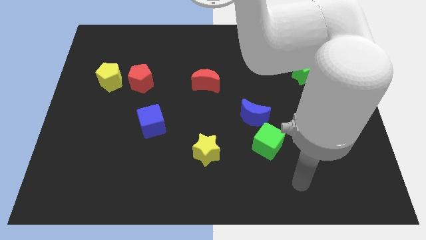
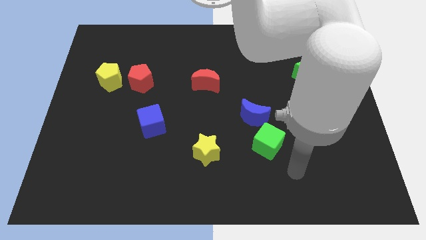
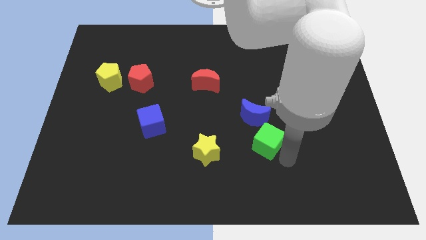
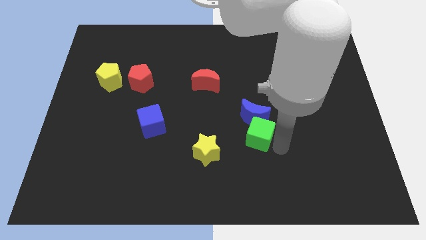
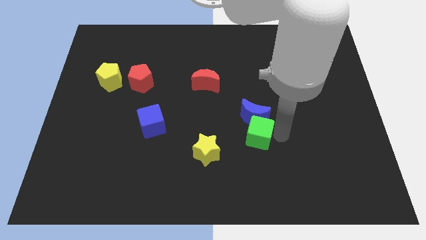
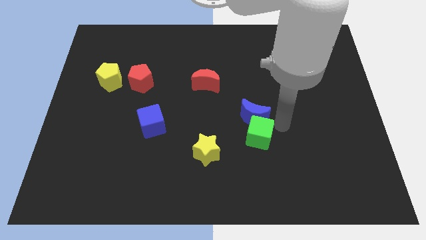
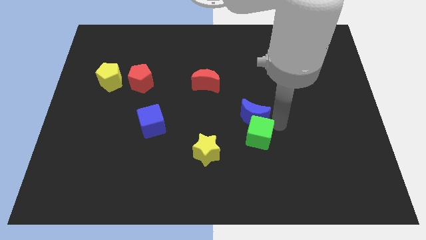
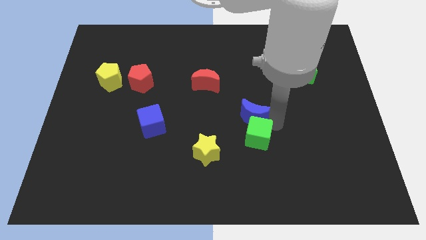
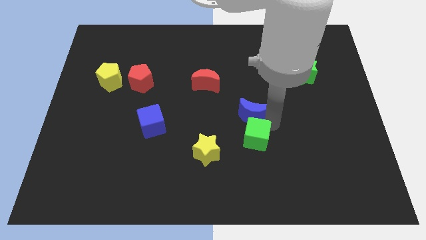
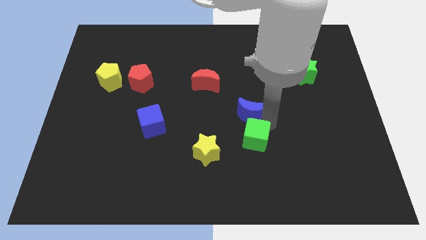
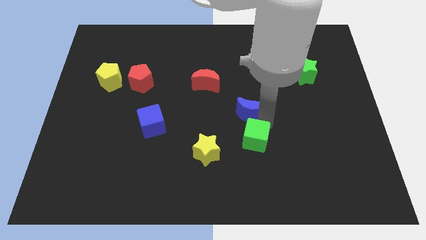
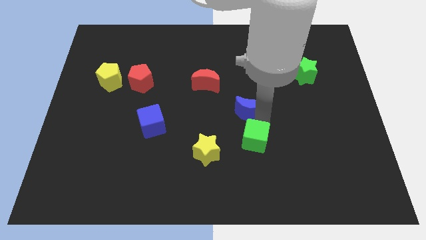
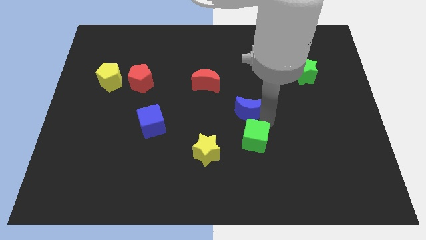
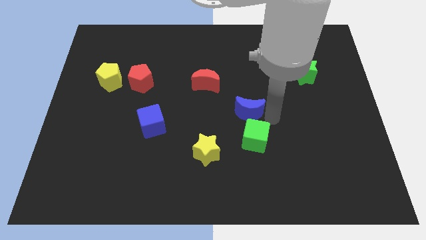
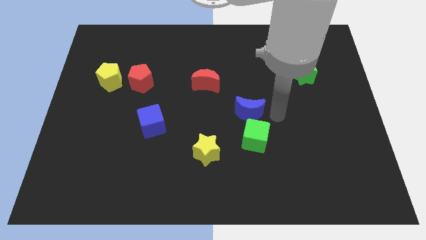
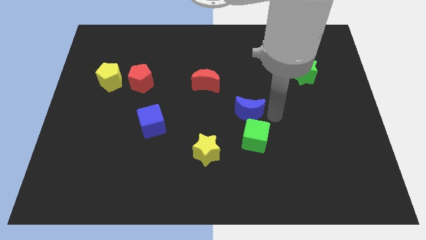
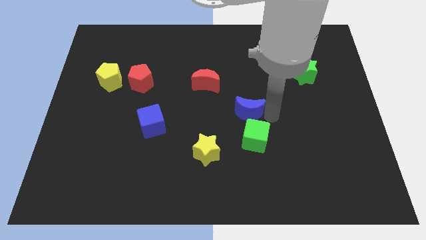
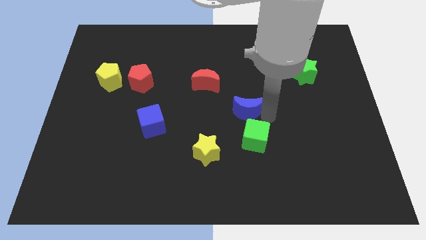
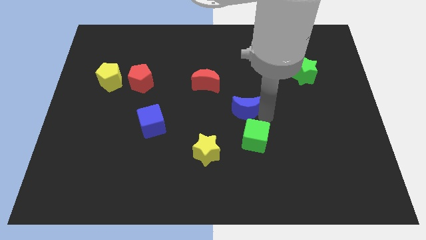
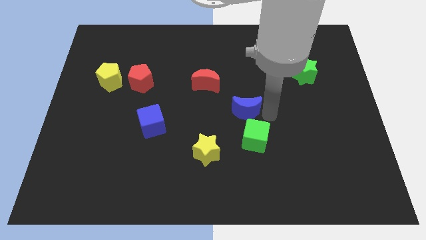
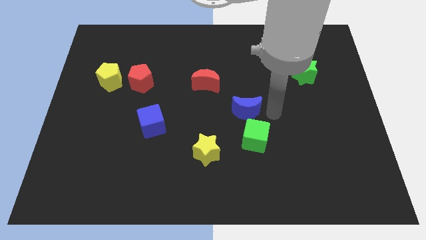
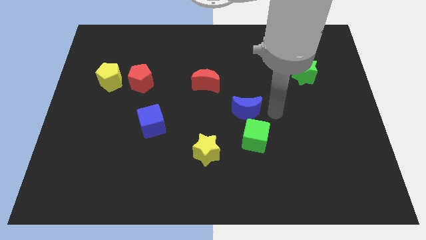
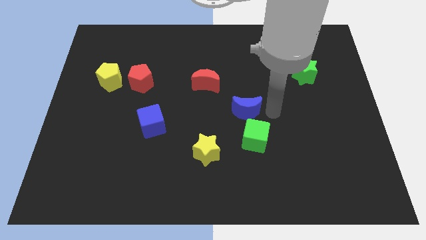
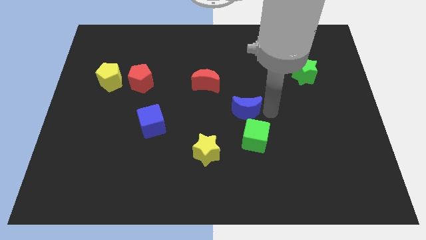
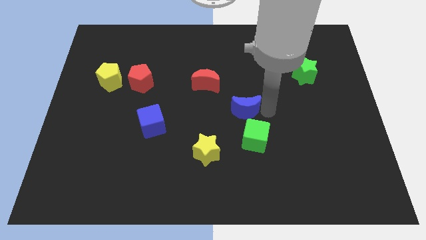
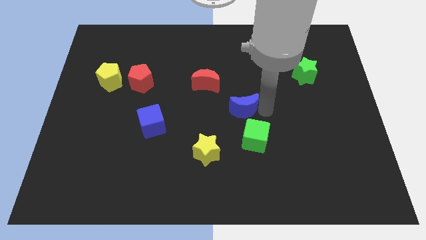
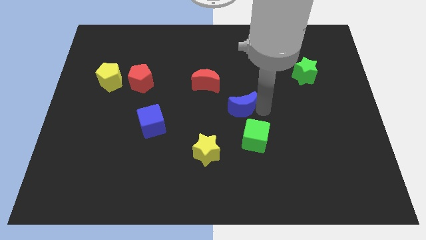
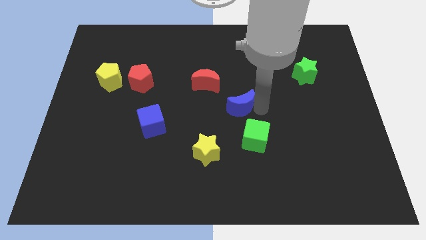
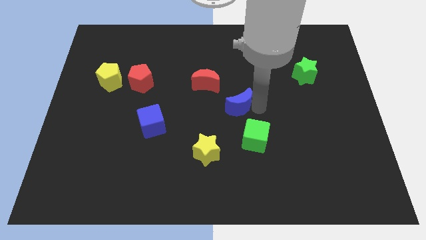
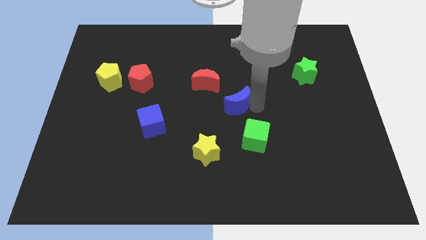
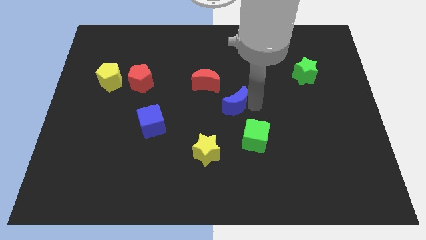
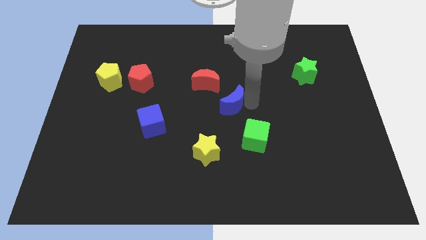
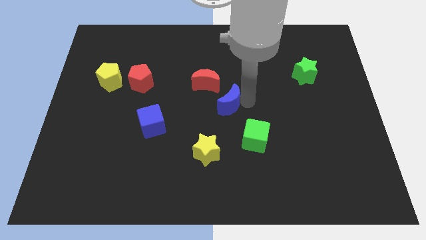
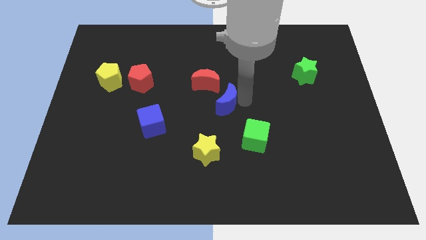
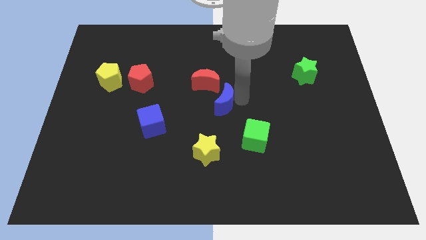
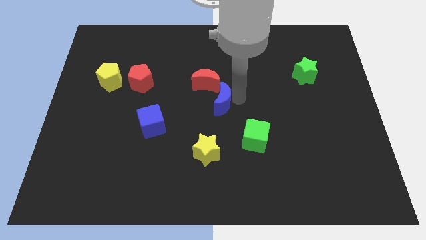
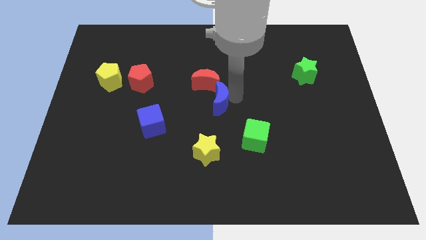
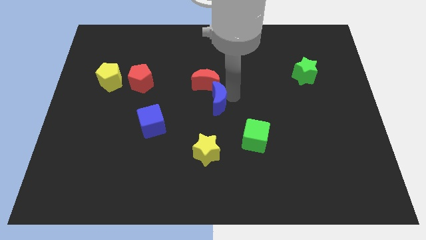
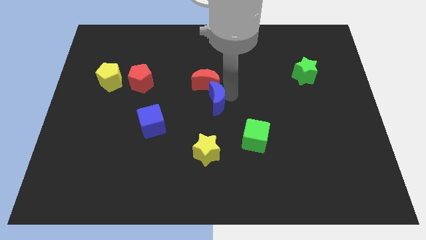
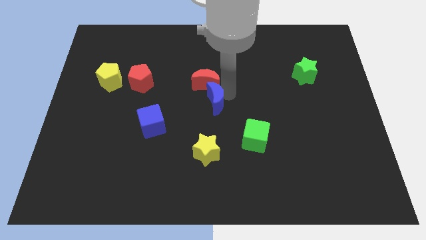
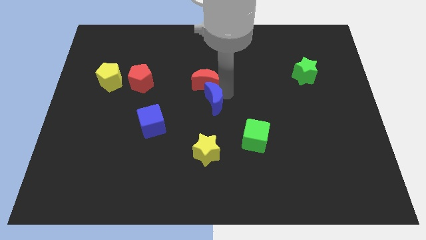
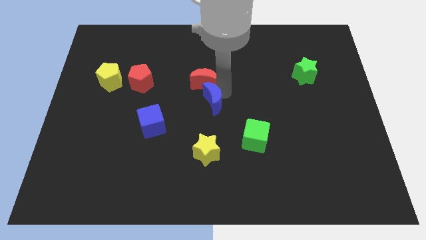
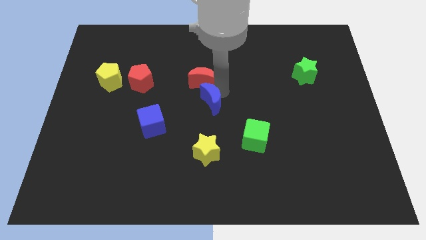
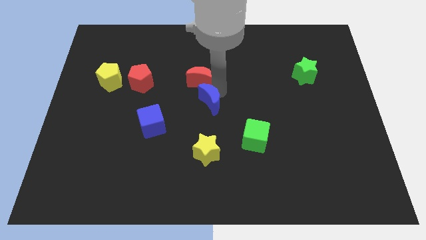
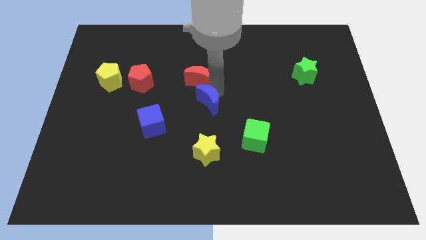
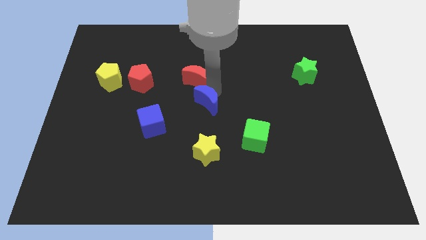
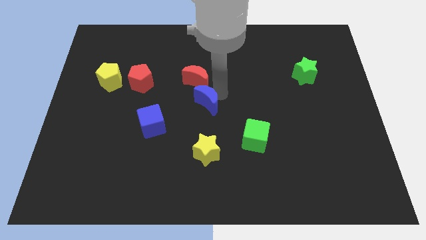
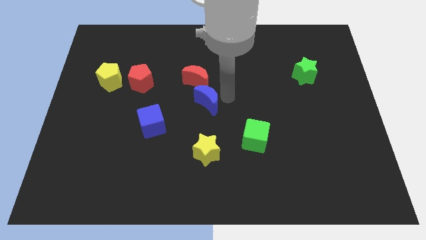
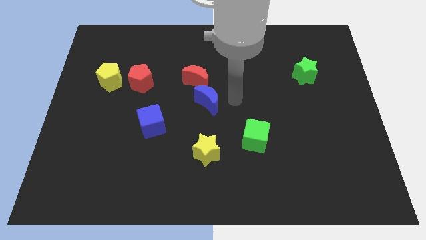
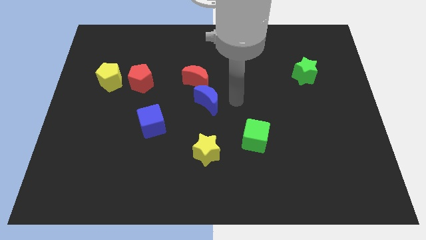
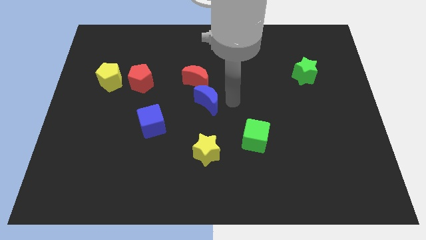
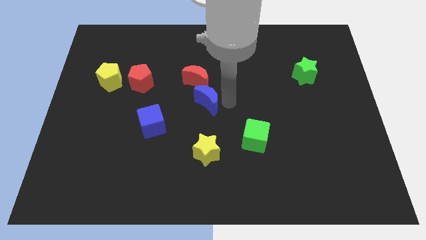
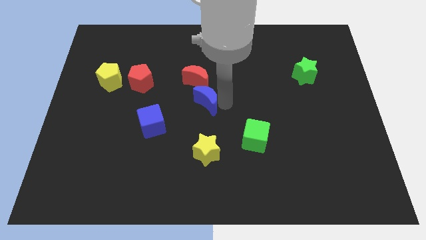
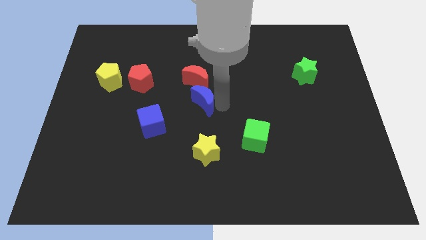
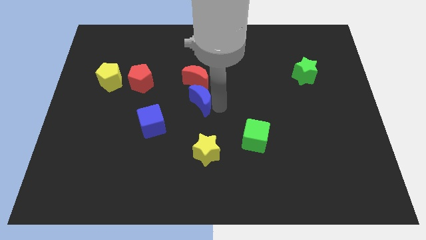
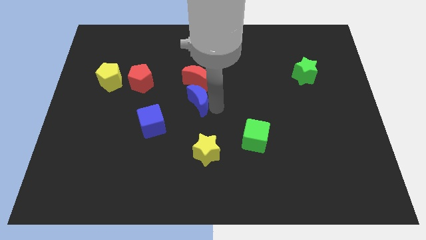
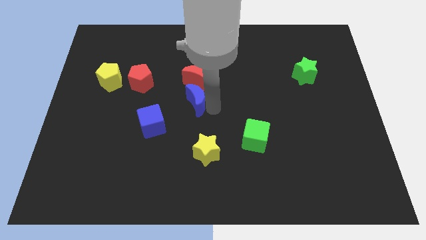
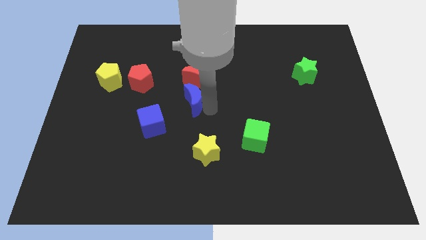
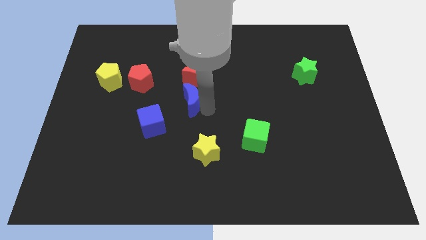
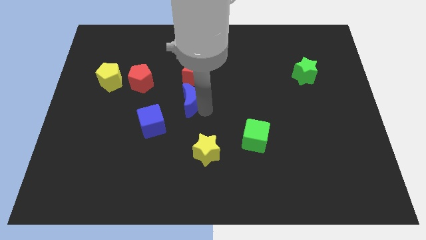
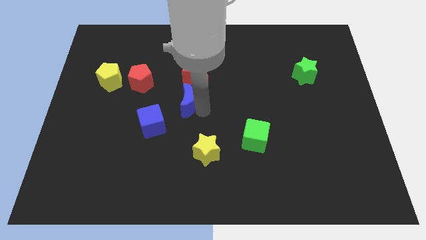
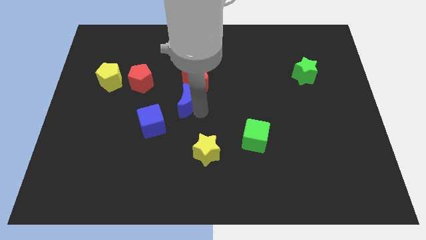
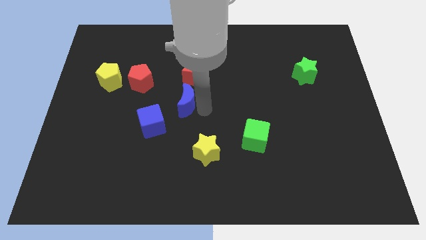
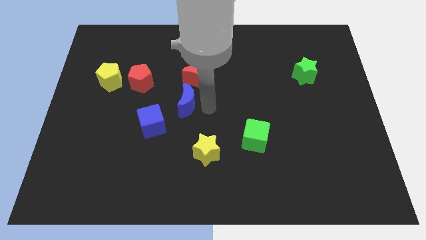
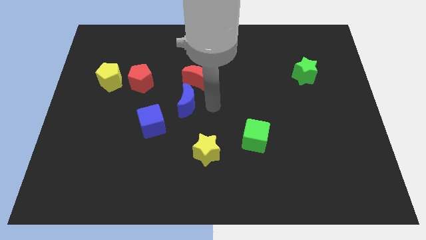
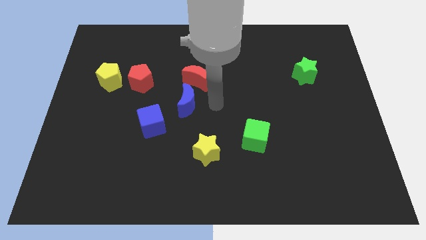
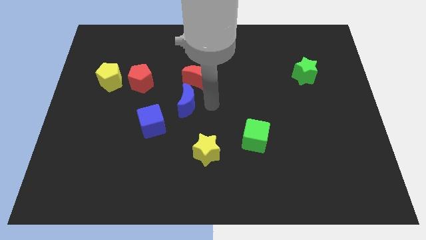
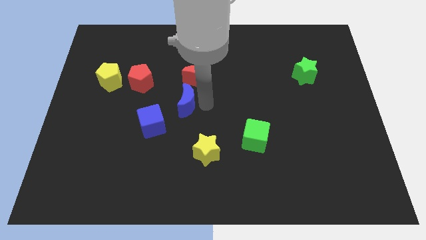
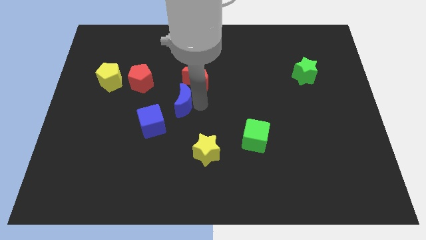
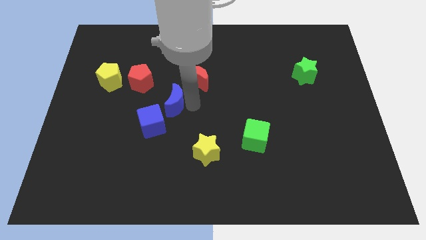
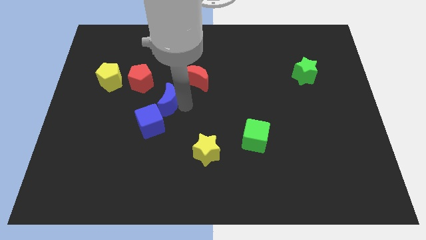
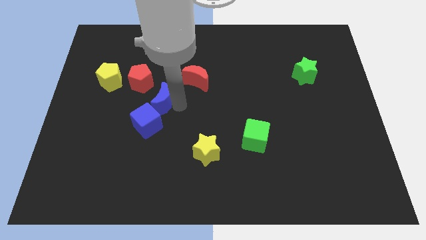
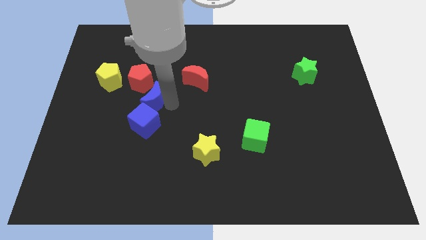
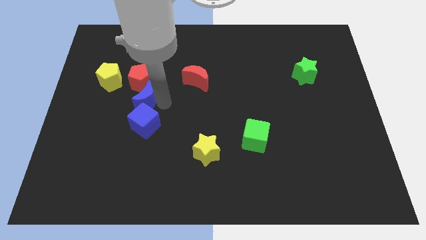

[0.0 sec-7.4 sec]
slide the blue moon diagonally down and to the right of the yellow pentagon
